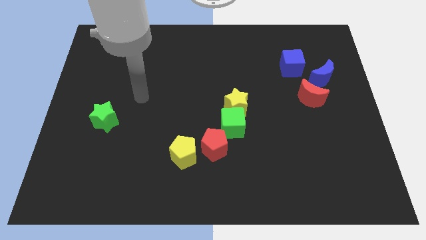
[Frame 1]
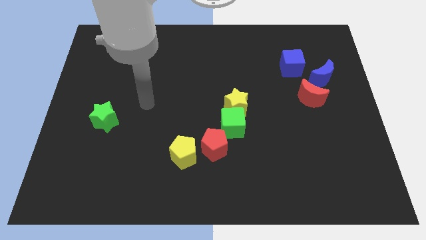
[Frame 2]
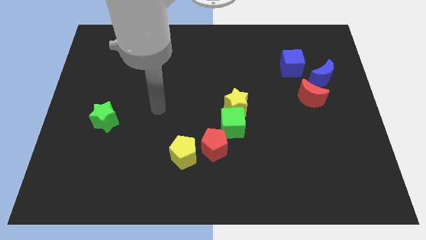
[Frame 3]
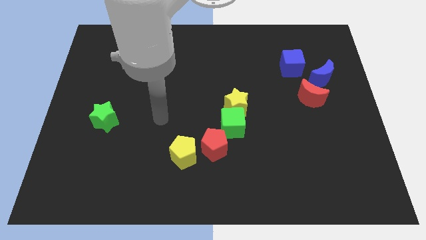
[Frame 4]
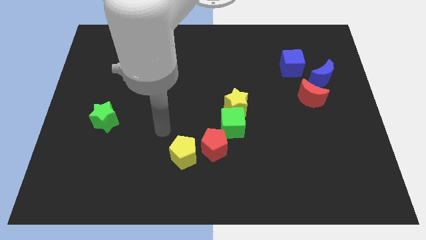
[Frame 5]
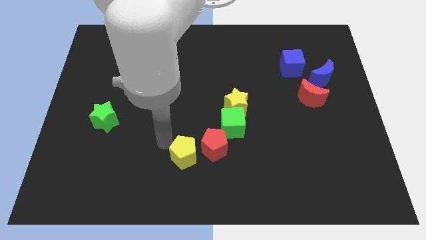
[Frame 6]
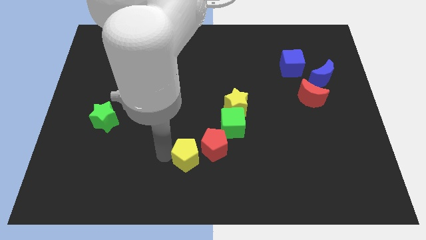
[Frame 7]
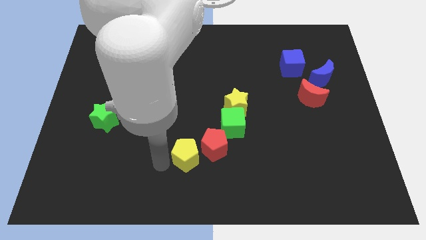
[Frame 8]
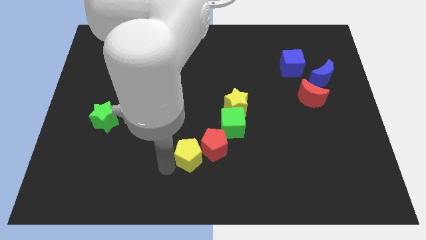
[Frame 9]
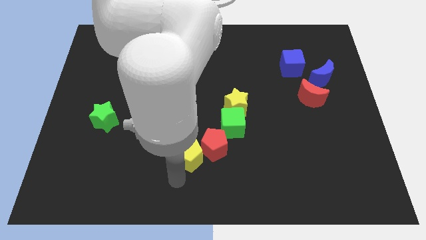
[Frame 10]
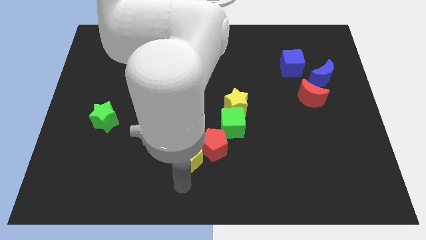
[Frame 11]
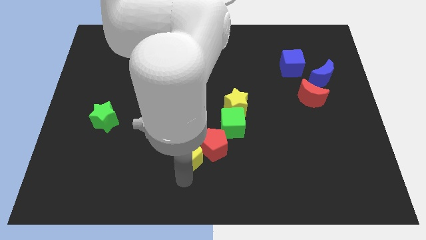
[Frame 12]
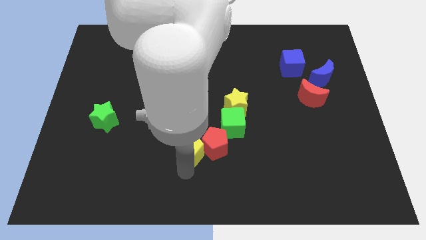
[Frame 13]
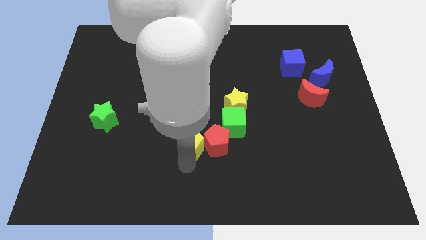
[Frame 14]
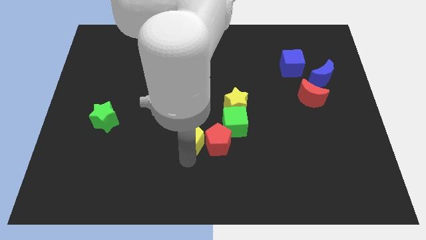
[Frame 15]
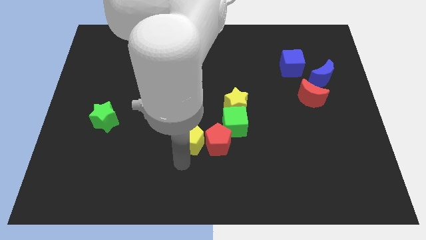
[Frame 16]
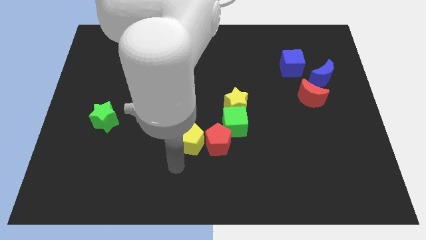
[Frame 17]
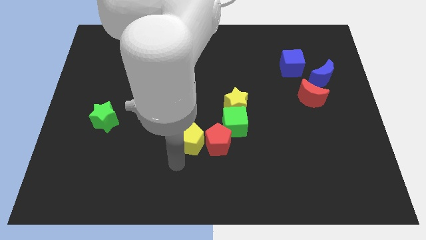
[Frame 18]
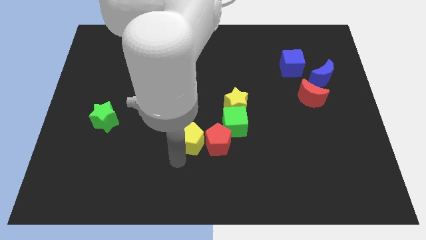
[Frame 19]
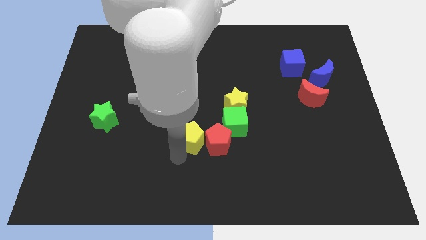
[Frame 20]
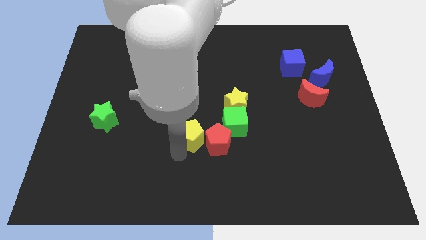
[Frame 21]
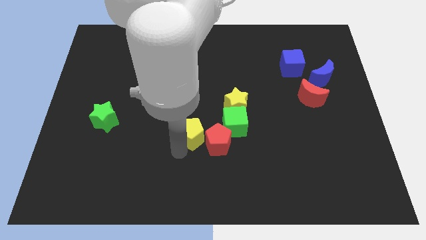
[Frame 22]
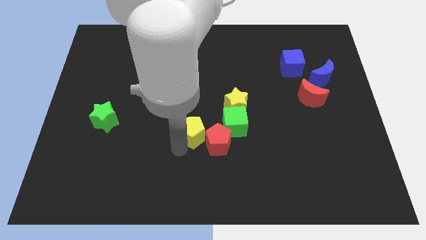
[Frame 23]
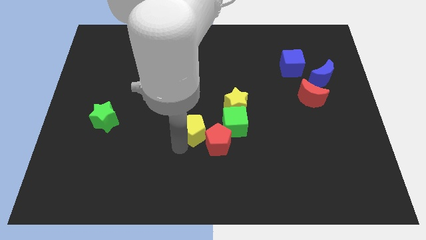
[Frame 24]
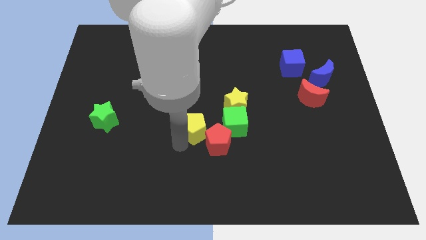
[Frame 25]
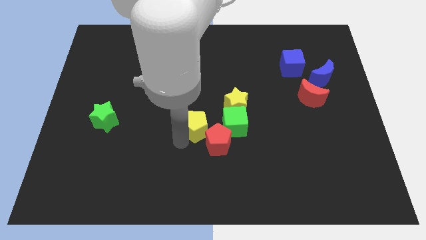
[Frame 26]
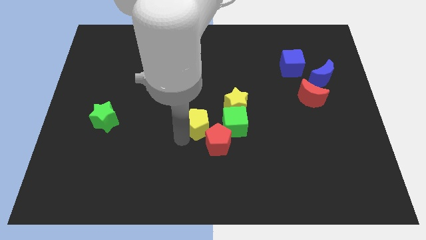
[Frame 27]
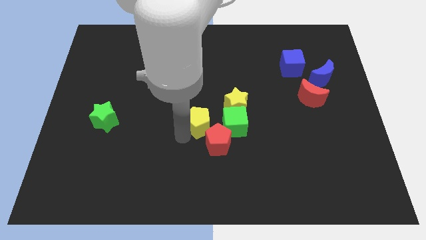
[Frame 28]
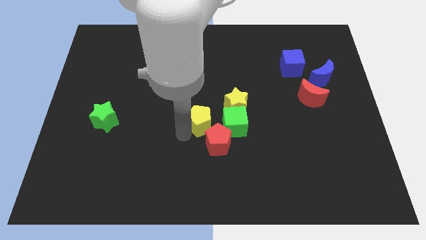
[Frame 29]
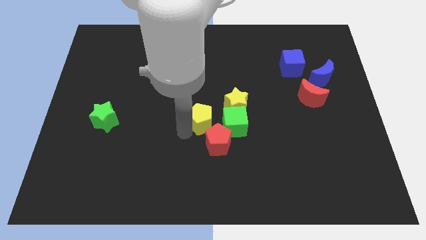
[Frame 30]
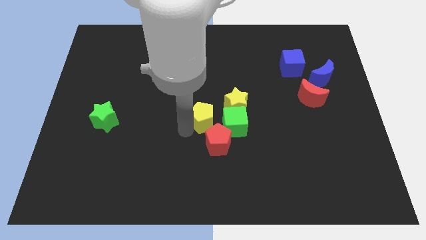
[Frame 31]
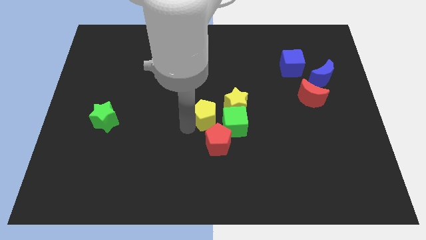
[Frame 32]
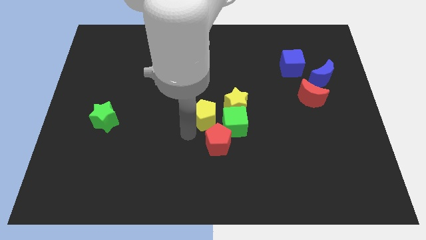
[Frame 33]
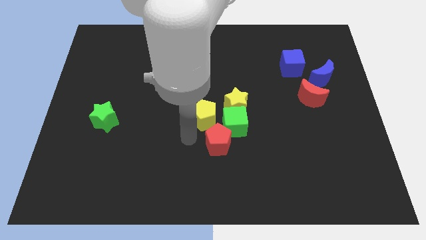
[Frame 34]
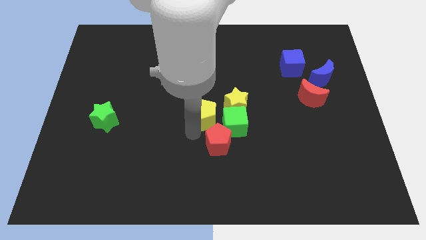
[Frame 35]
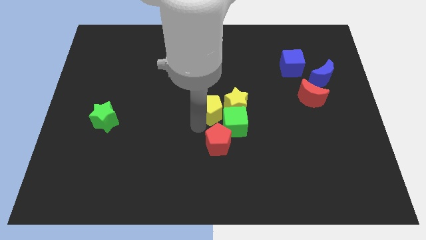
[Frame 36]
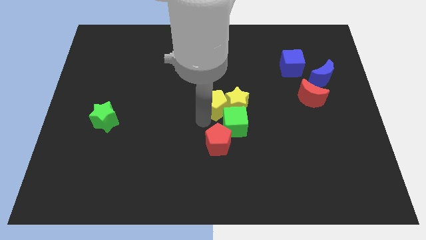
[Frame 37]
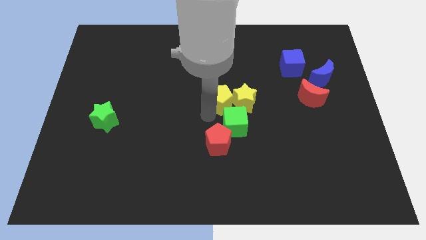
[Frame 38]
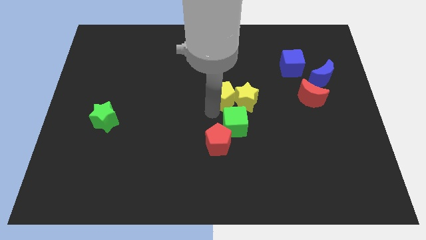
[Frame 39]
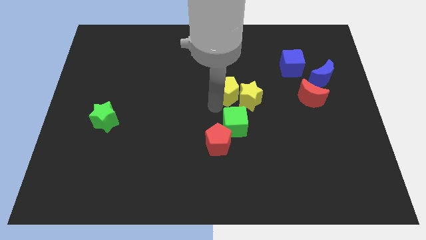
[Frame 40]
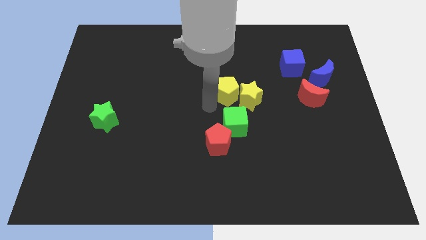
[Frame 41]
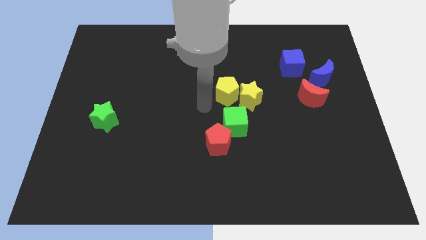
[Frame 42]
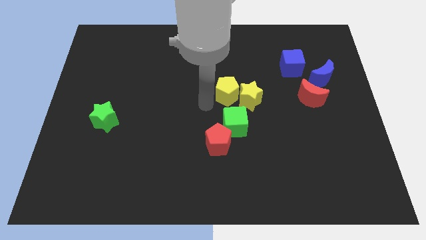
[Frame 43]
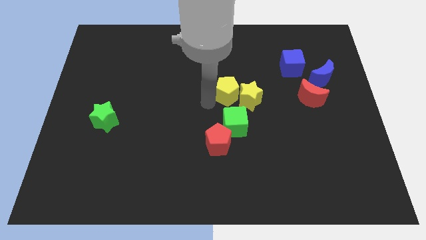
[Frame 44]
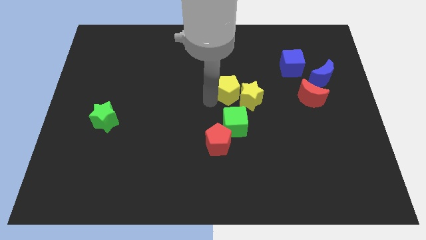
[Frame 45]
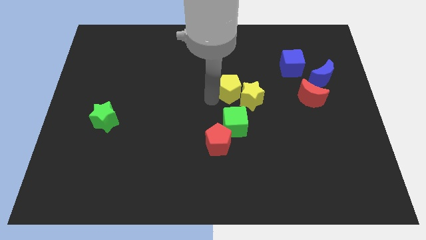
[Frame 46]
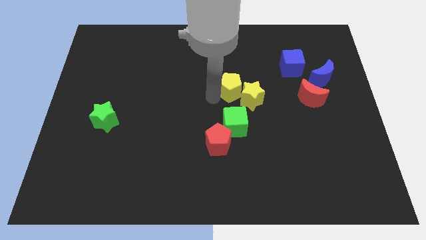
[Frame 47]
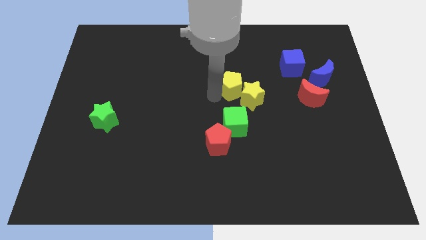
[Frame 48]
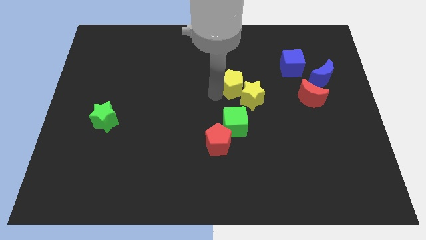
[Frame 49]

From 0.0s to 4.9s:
slide the yellow pentagon upwards and right

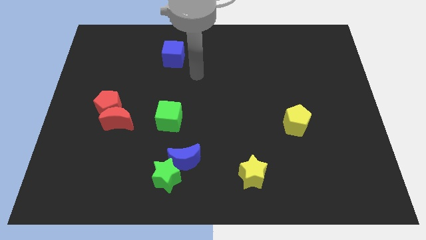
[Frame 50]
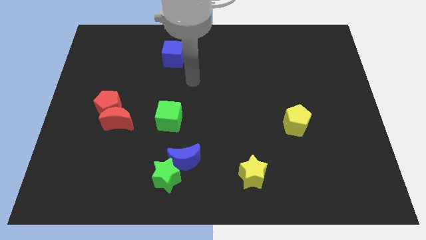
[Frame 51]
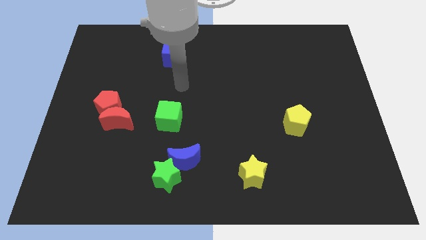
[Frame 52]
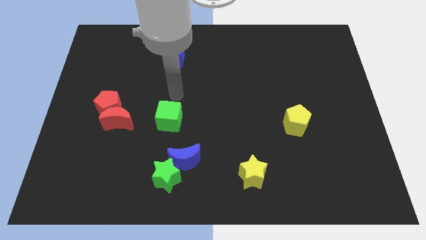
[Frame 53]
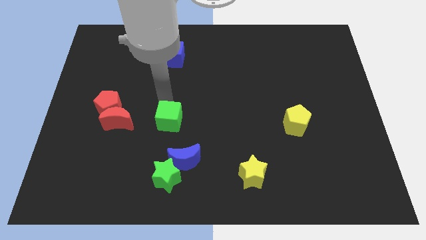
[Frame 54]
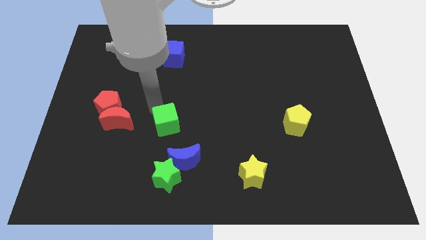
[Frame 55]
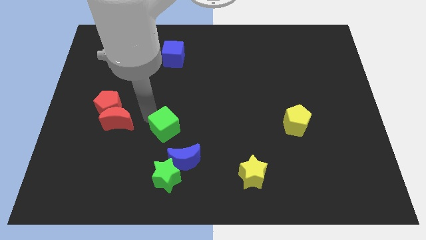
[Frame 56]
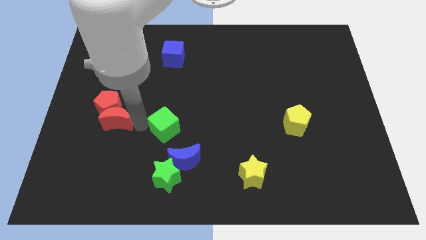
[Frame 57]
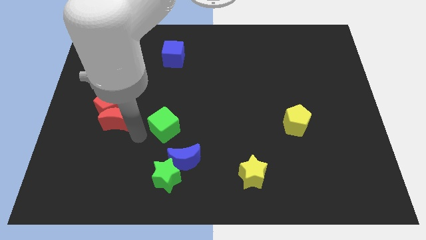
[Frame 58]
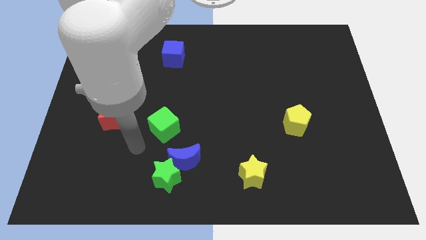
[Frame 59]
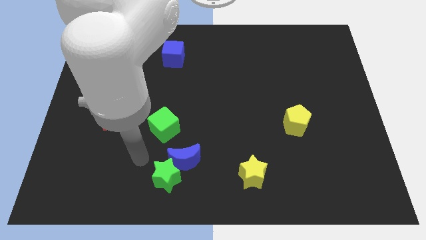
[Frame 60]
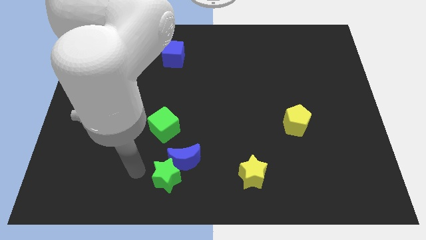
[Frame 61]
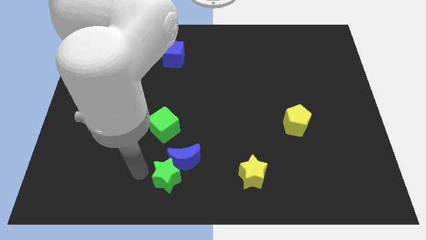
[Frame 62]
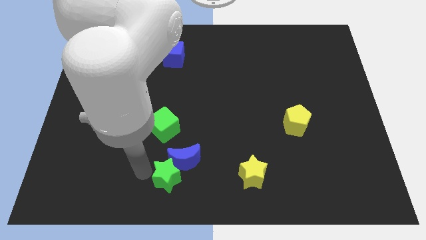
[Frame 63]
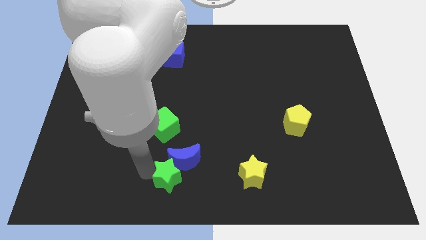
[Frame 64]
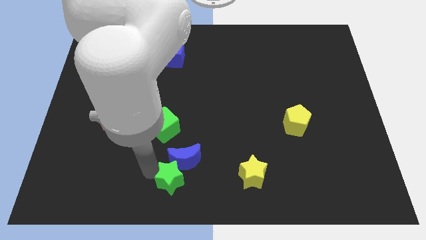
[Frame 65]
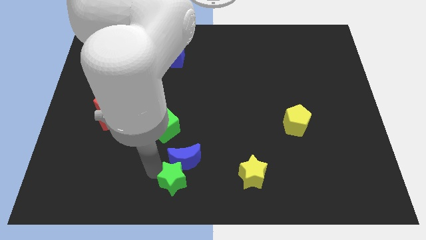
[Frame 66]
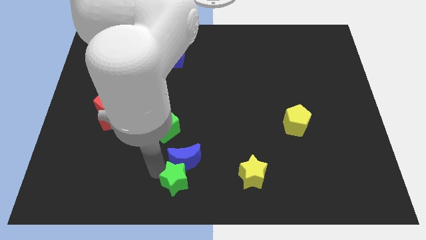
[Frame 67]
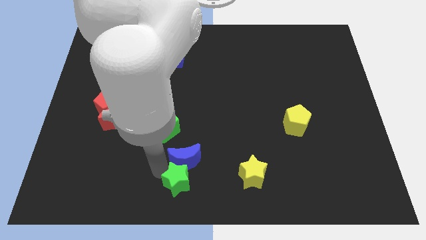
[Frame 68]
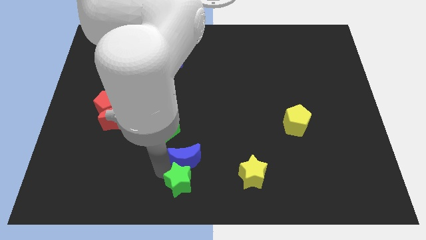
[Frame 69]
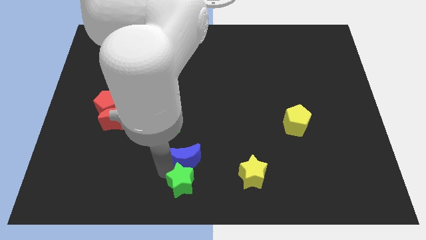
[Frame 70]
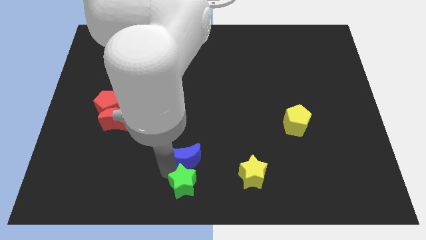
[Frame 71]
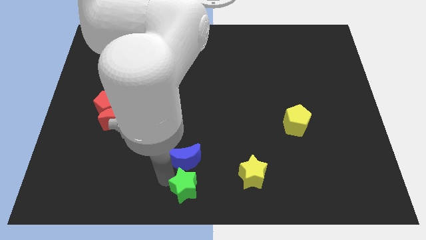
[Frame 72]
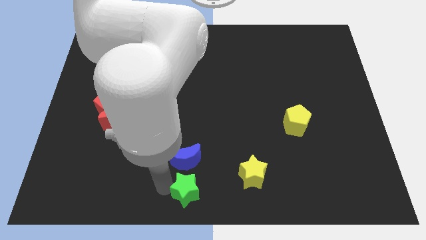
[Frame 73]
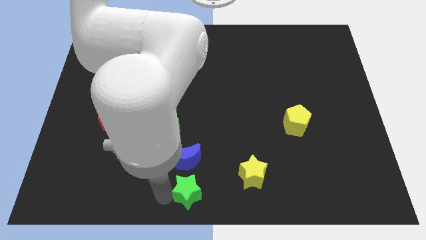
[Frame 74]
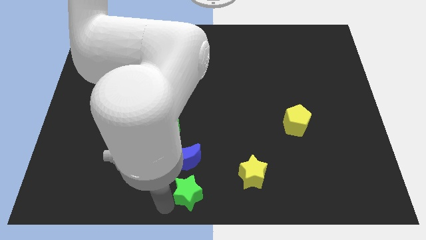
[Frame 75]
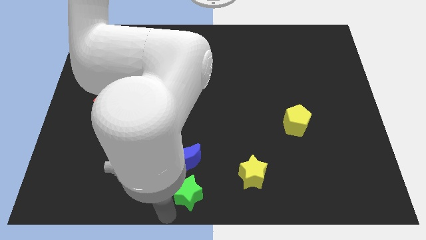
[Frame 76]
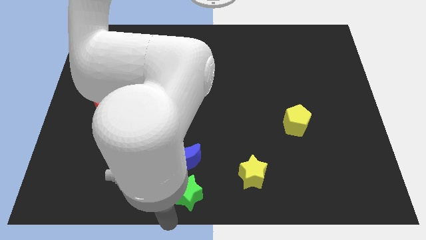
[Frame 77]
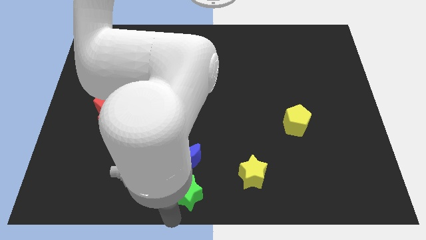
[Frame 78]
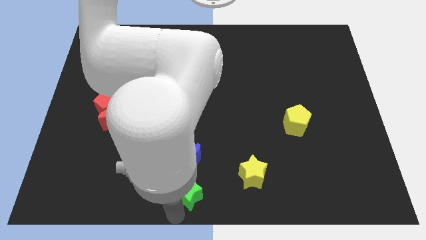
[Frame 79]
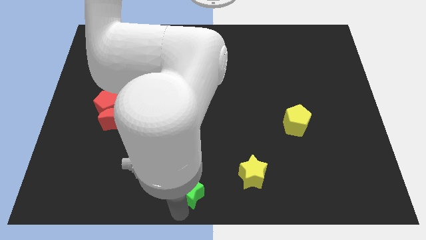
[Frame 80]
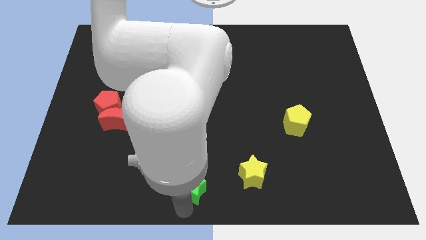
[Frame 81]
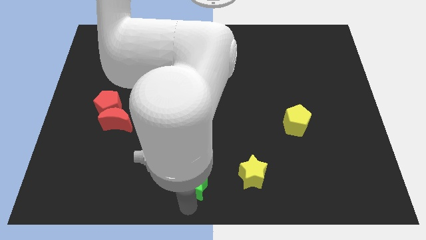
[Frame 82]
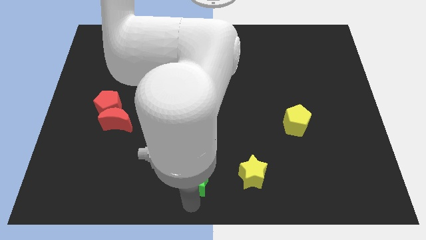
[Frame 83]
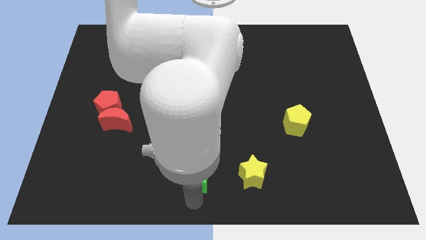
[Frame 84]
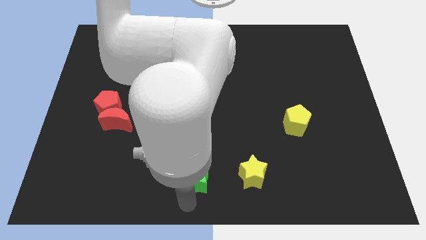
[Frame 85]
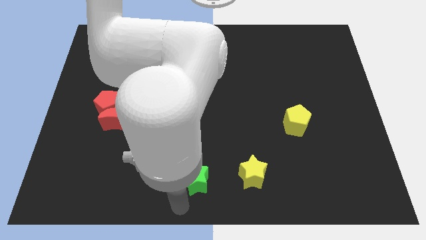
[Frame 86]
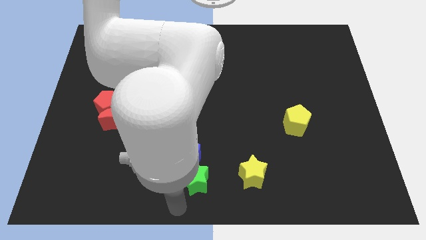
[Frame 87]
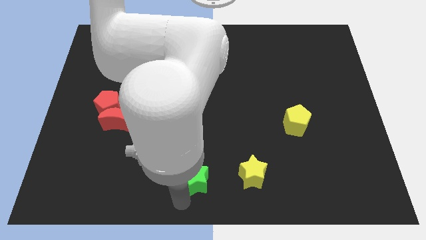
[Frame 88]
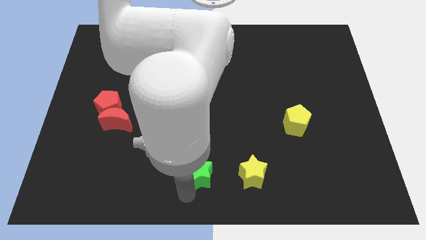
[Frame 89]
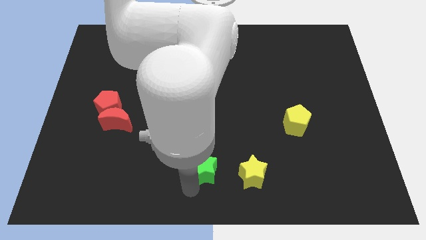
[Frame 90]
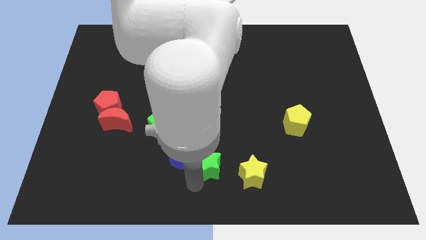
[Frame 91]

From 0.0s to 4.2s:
move the green star up and then right slightly
